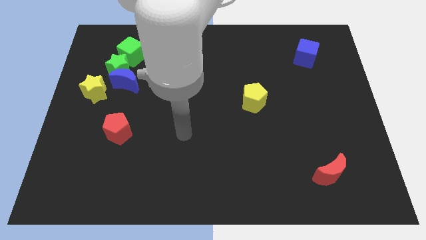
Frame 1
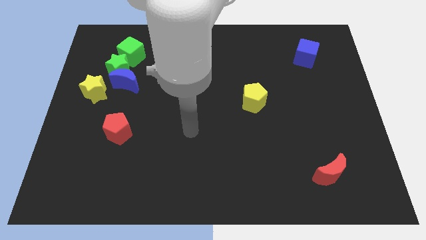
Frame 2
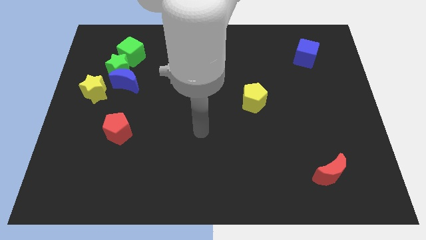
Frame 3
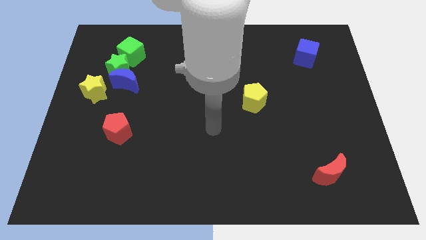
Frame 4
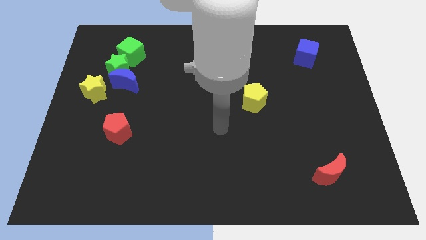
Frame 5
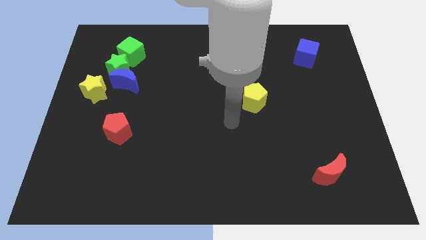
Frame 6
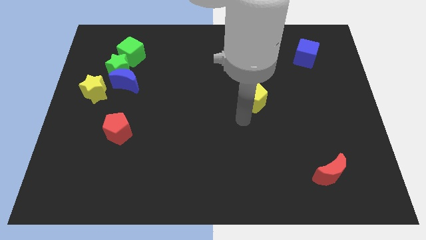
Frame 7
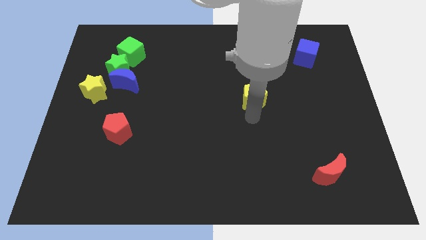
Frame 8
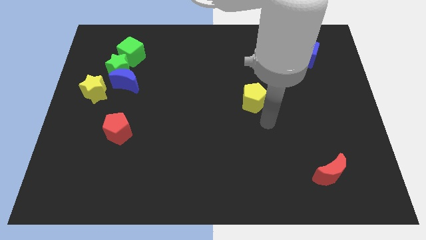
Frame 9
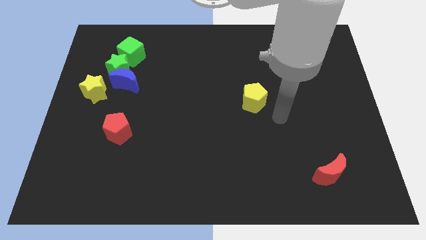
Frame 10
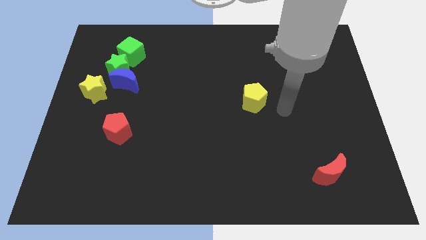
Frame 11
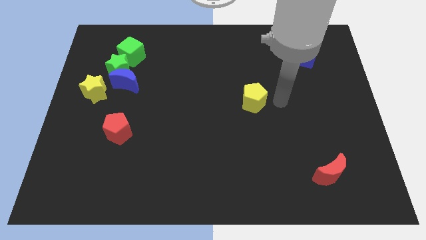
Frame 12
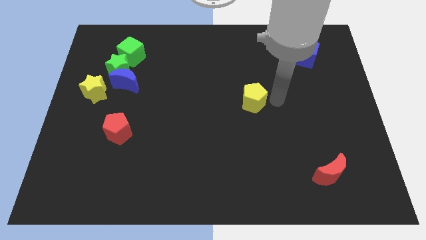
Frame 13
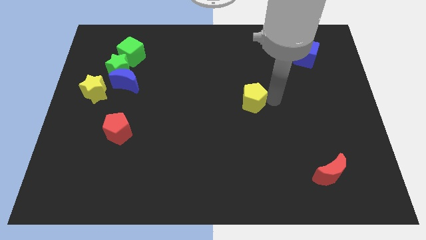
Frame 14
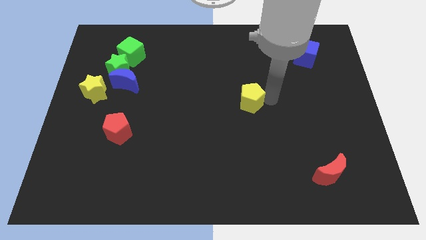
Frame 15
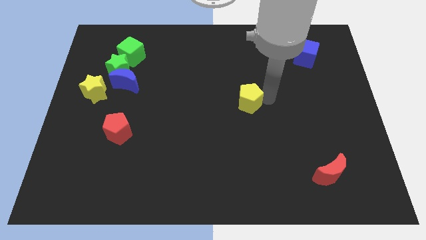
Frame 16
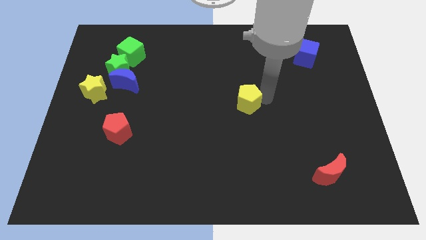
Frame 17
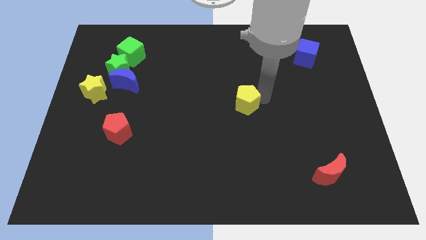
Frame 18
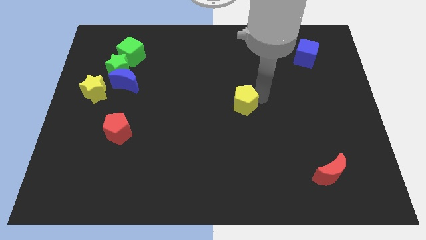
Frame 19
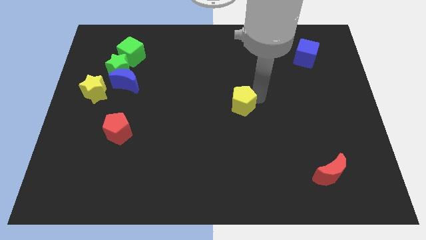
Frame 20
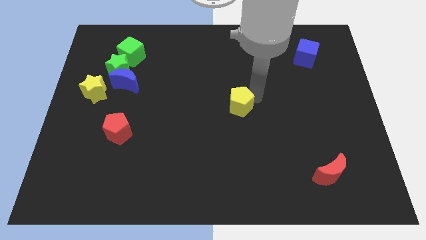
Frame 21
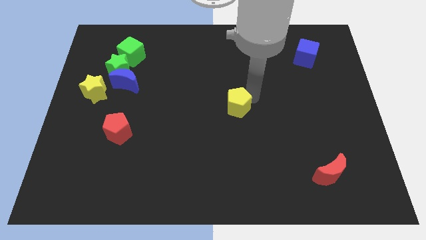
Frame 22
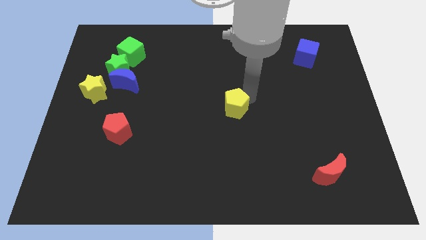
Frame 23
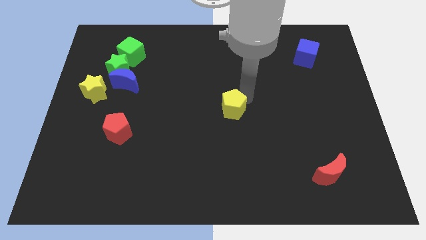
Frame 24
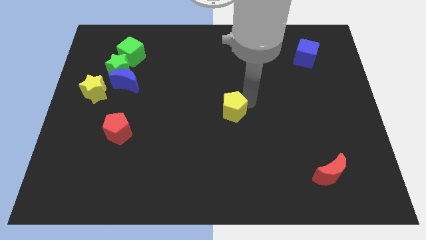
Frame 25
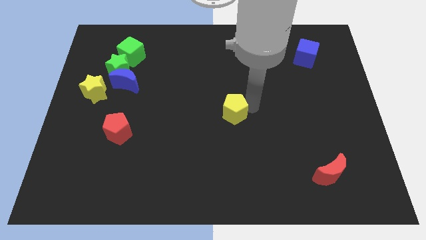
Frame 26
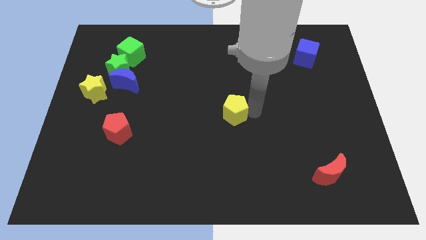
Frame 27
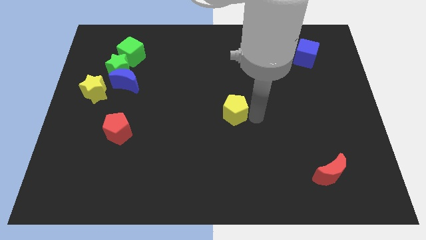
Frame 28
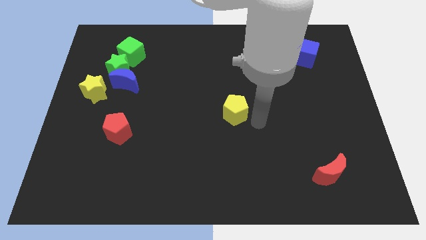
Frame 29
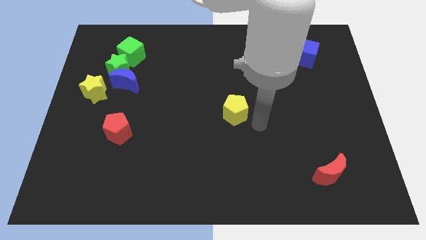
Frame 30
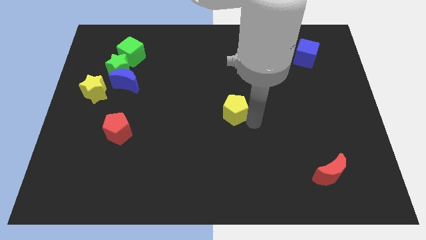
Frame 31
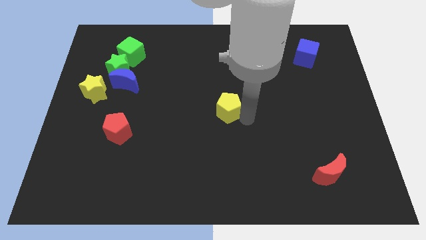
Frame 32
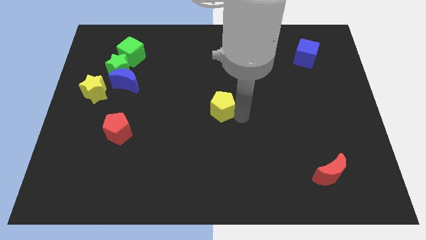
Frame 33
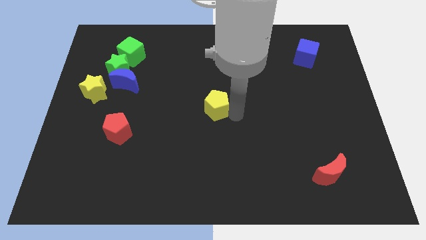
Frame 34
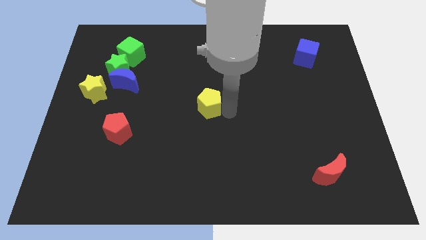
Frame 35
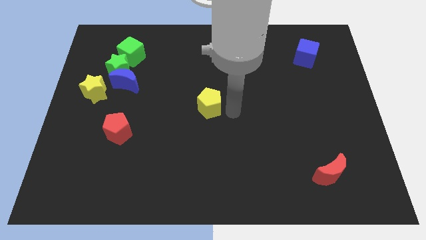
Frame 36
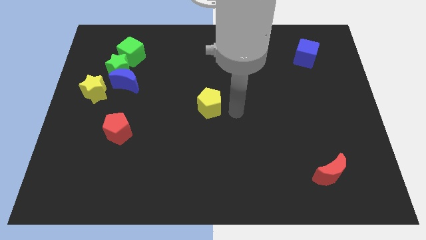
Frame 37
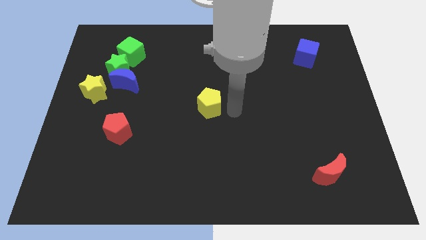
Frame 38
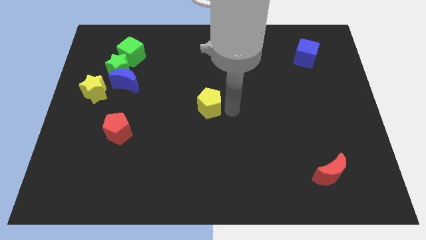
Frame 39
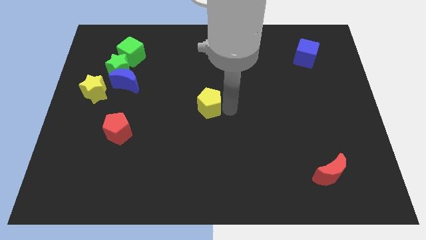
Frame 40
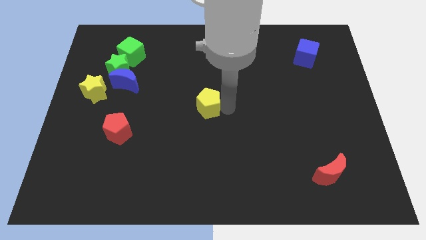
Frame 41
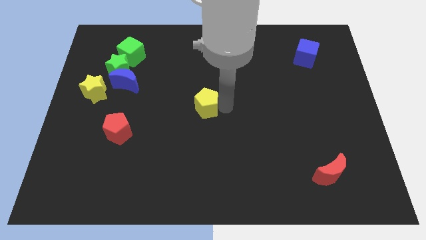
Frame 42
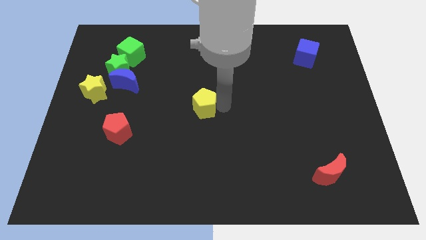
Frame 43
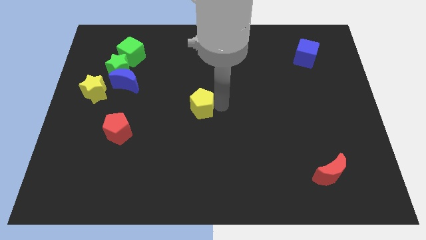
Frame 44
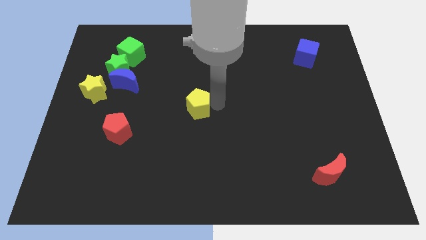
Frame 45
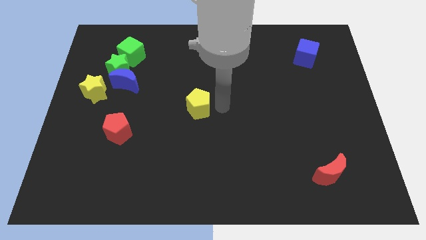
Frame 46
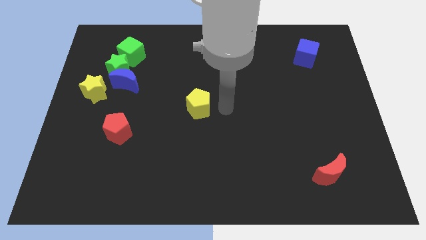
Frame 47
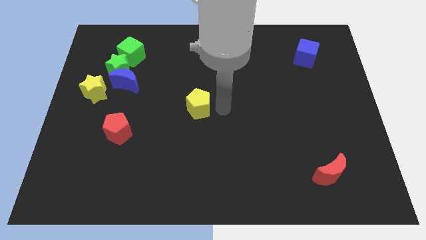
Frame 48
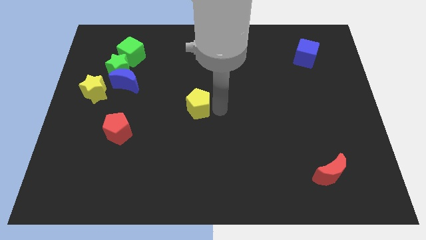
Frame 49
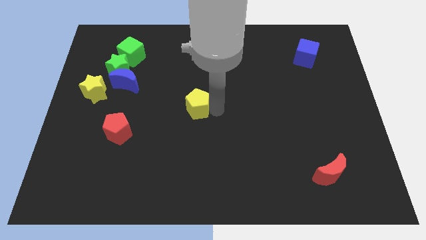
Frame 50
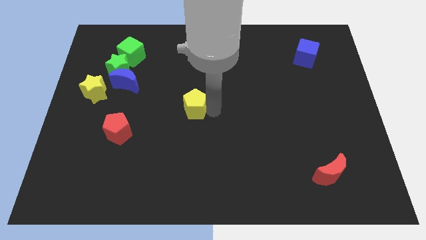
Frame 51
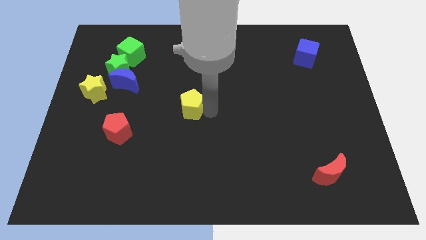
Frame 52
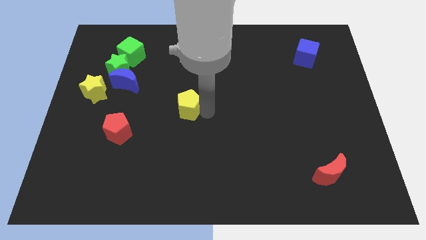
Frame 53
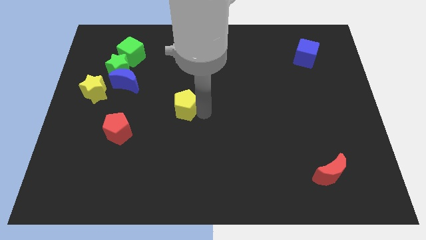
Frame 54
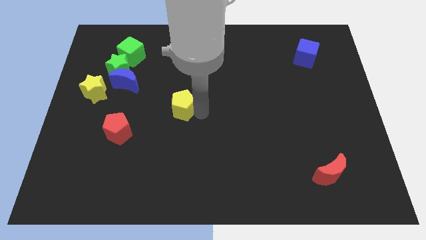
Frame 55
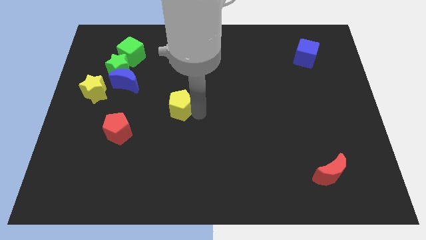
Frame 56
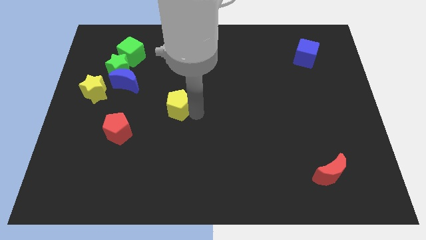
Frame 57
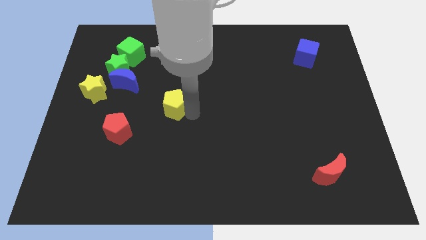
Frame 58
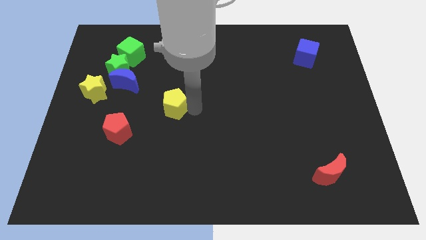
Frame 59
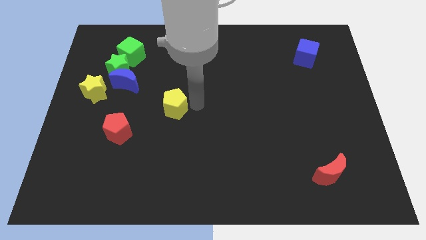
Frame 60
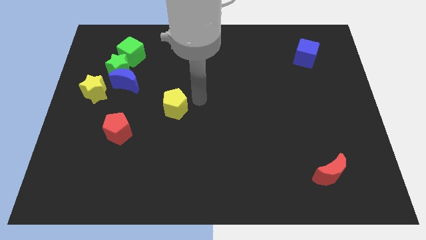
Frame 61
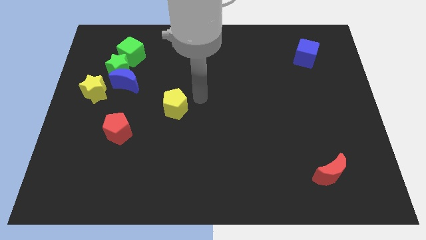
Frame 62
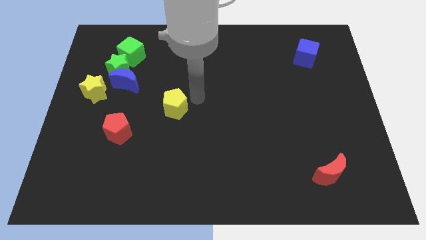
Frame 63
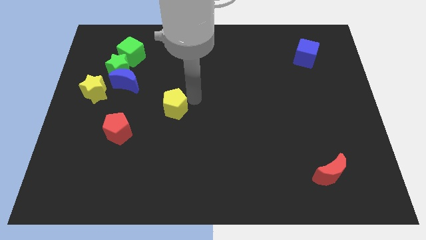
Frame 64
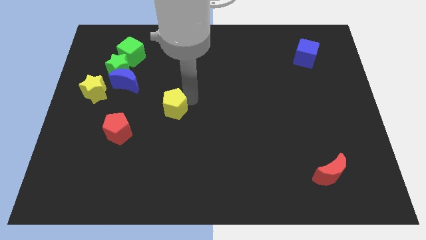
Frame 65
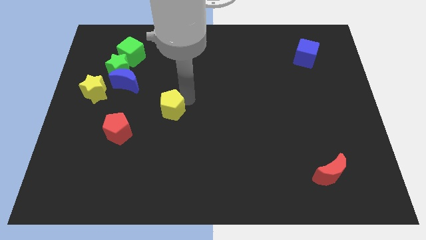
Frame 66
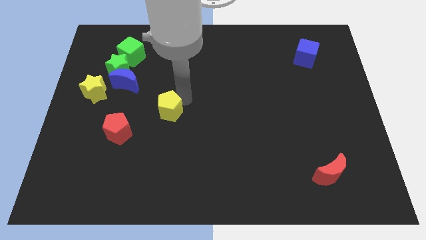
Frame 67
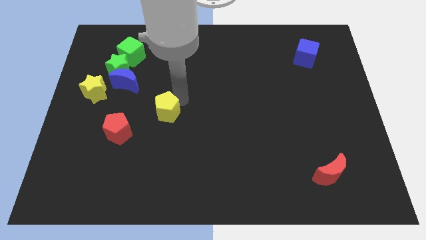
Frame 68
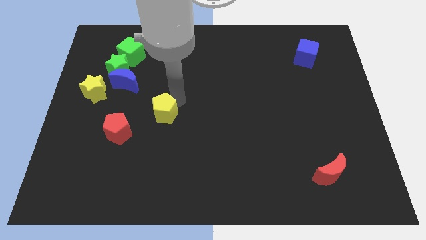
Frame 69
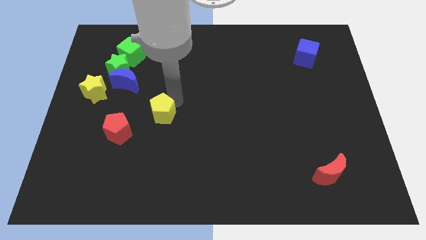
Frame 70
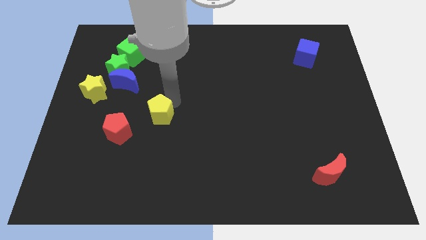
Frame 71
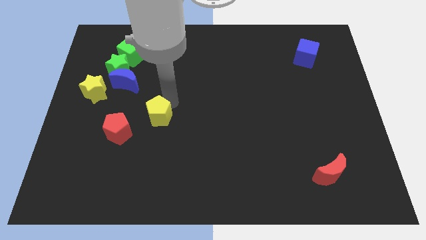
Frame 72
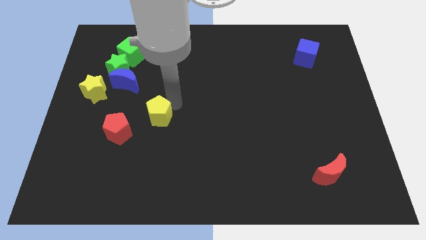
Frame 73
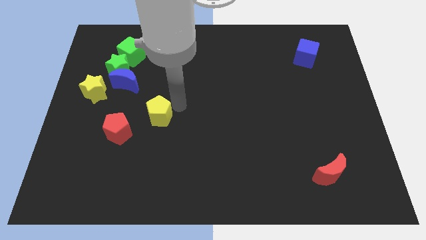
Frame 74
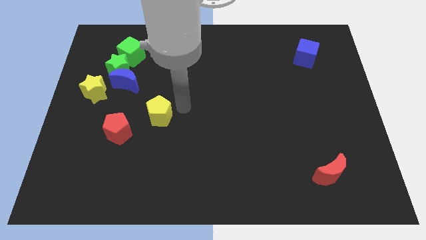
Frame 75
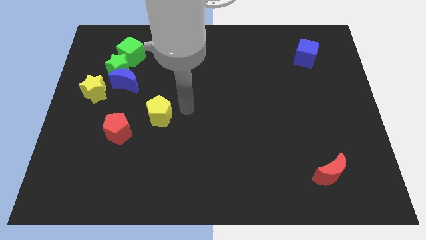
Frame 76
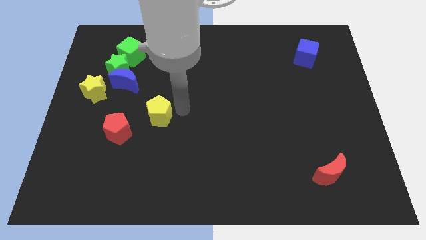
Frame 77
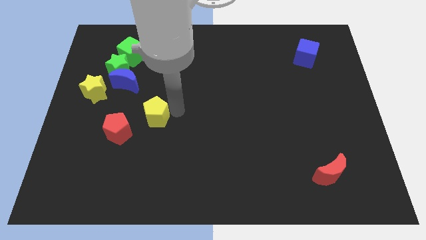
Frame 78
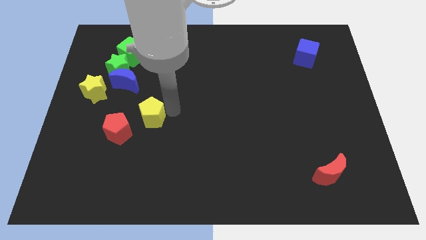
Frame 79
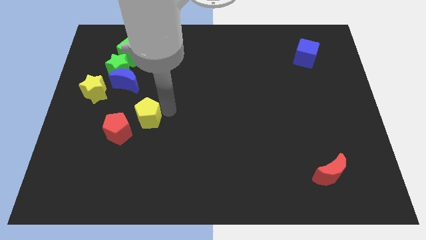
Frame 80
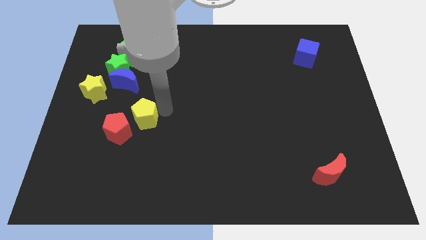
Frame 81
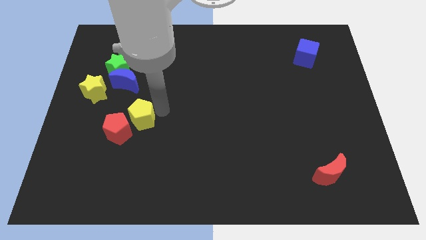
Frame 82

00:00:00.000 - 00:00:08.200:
slide the yellow pentagon to the red pentagon
